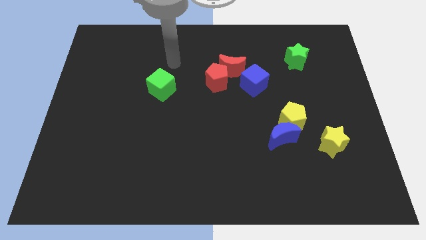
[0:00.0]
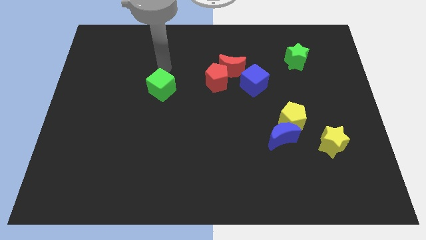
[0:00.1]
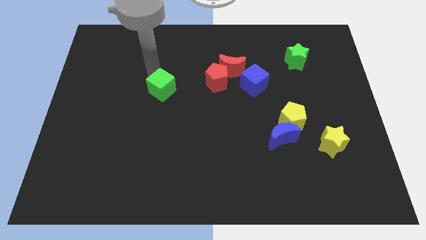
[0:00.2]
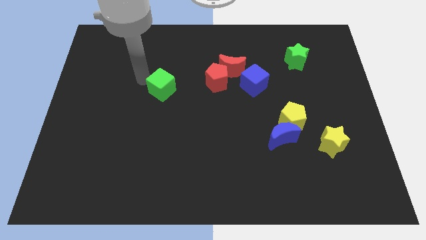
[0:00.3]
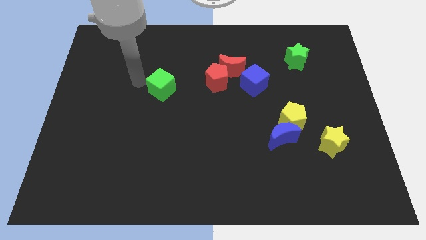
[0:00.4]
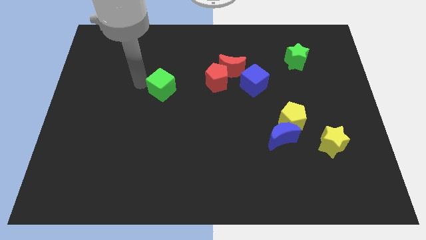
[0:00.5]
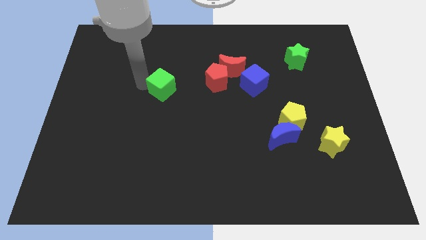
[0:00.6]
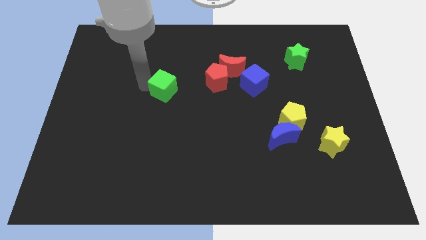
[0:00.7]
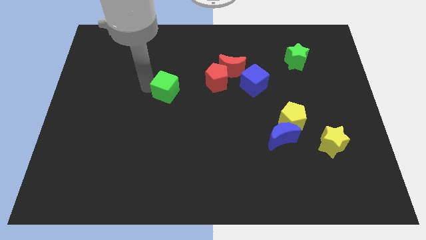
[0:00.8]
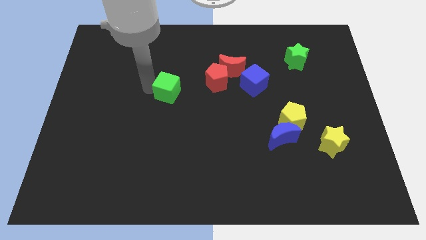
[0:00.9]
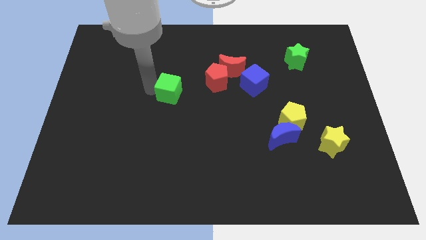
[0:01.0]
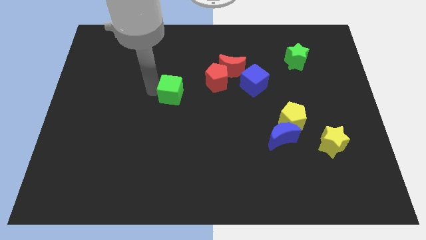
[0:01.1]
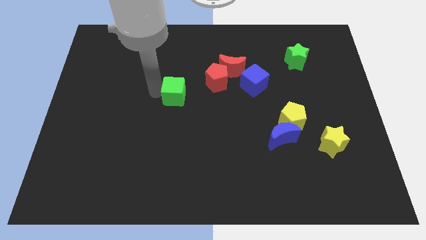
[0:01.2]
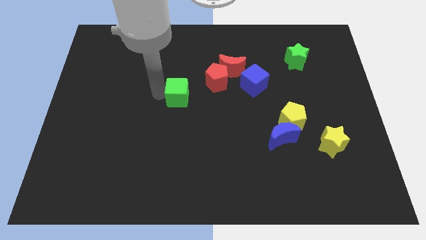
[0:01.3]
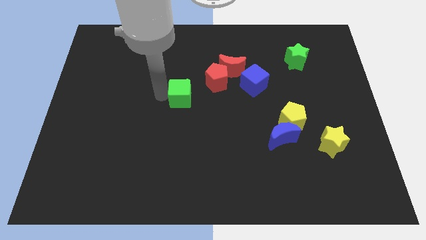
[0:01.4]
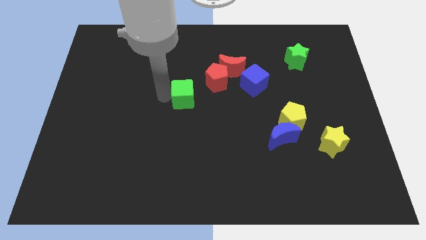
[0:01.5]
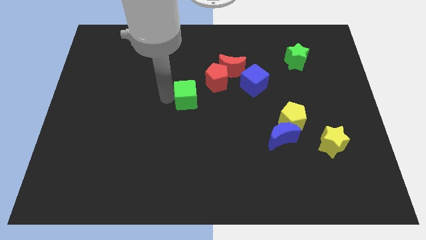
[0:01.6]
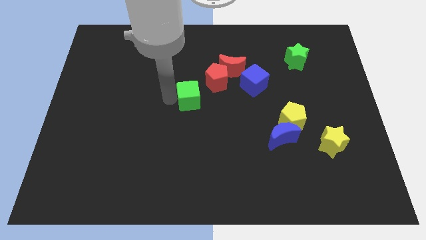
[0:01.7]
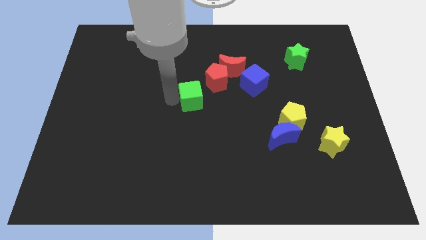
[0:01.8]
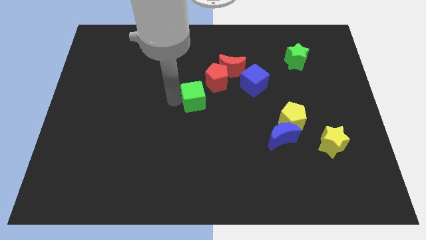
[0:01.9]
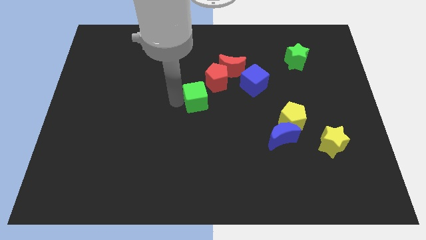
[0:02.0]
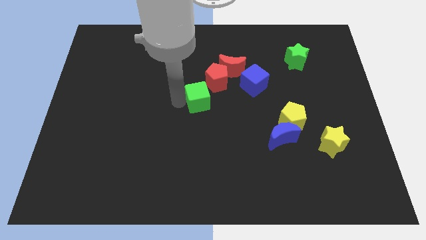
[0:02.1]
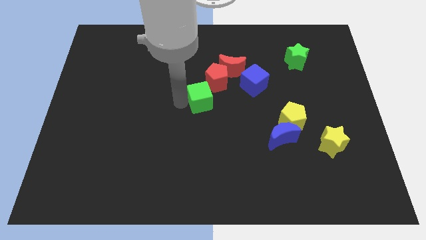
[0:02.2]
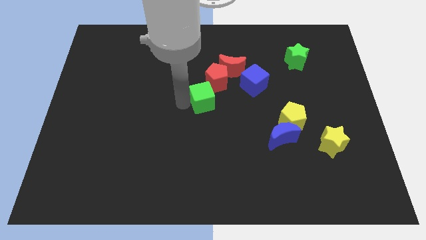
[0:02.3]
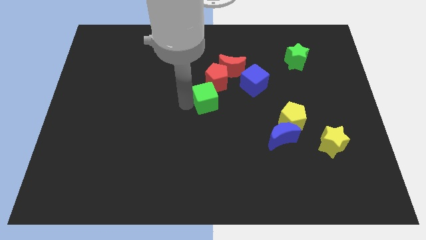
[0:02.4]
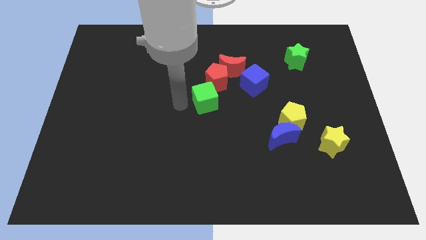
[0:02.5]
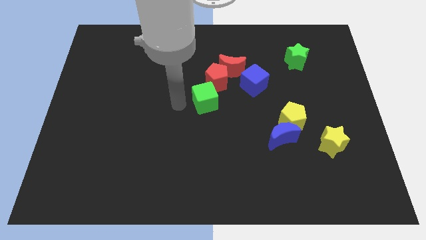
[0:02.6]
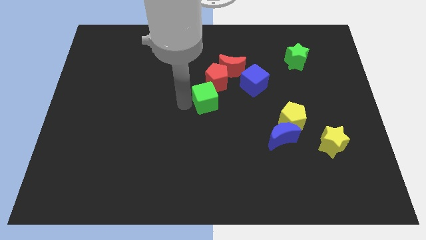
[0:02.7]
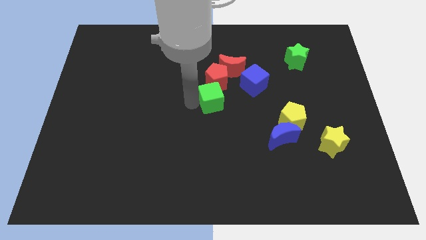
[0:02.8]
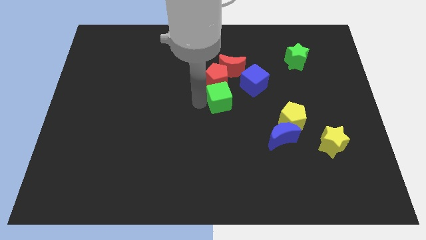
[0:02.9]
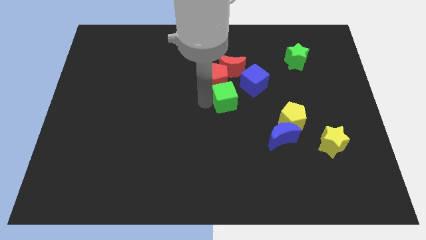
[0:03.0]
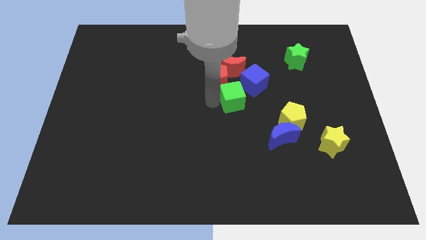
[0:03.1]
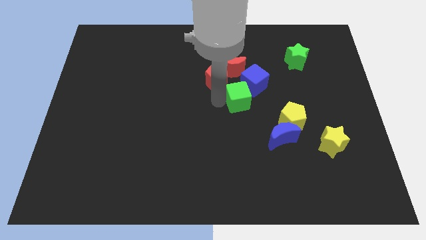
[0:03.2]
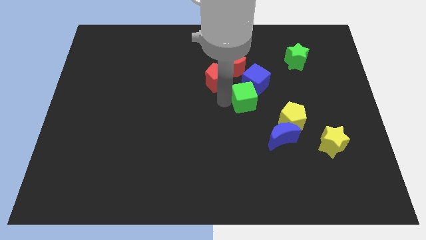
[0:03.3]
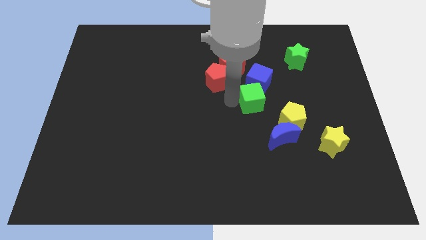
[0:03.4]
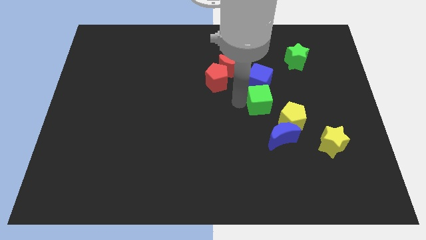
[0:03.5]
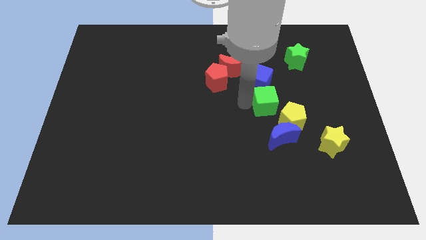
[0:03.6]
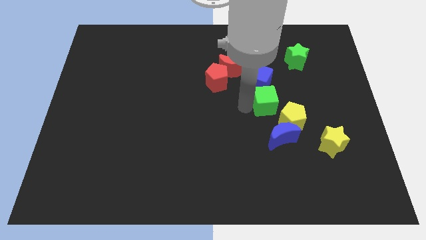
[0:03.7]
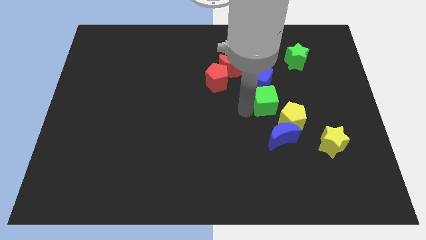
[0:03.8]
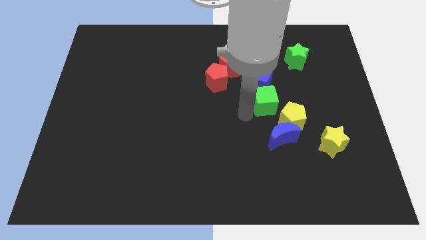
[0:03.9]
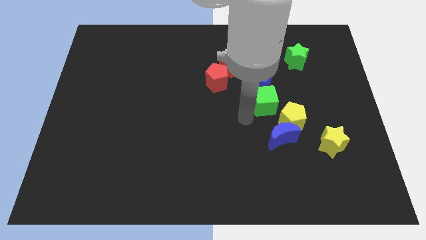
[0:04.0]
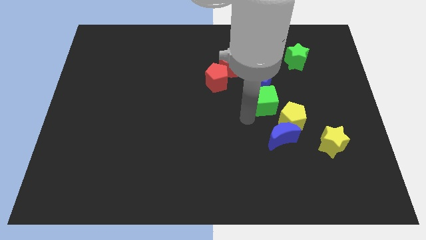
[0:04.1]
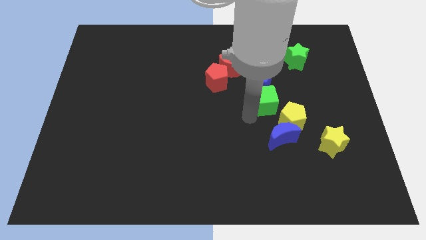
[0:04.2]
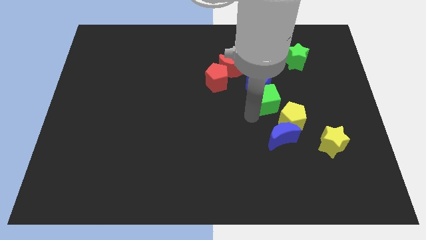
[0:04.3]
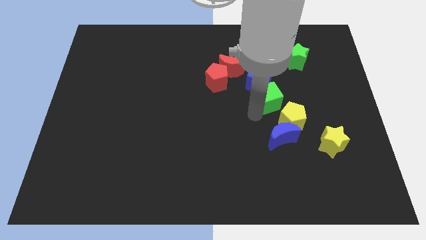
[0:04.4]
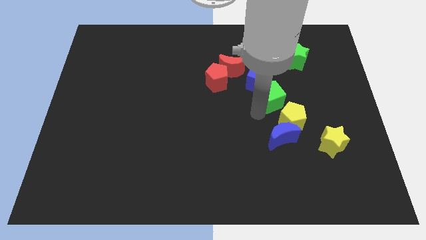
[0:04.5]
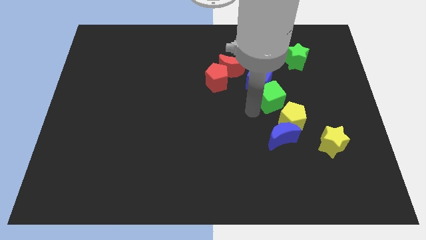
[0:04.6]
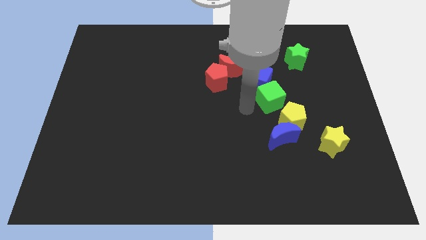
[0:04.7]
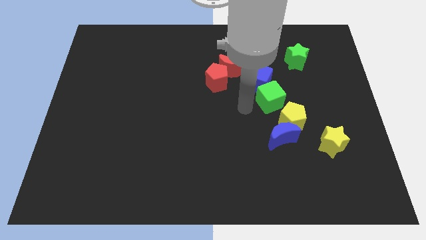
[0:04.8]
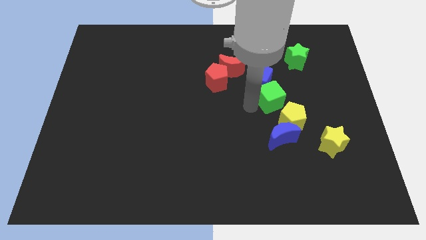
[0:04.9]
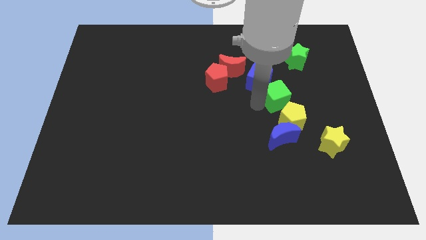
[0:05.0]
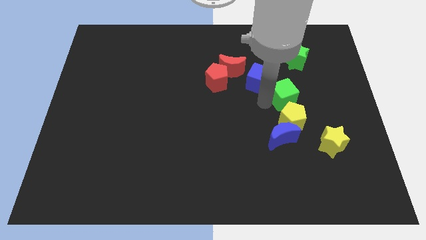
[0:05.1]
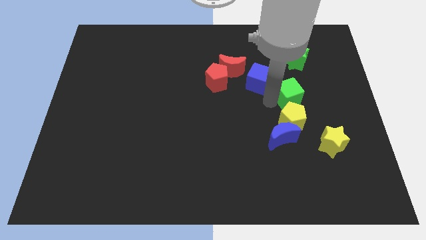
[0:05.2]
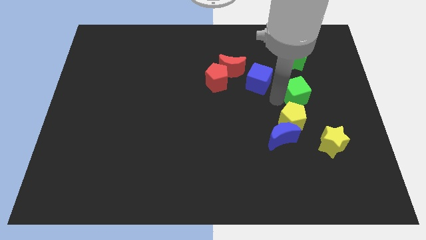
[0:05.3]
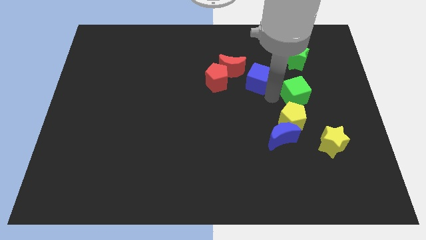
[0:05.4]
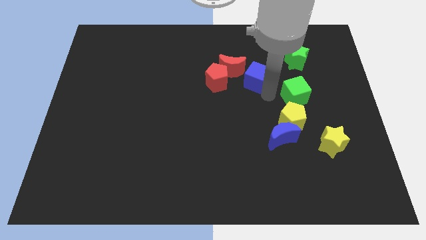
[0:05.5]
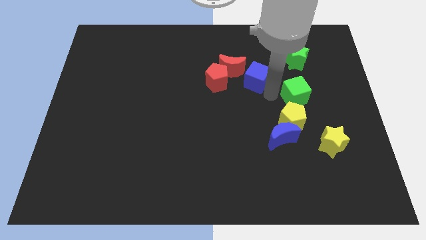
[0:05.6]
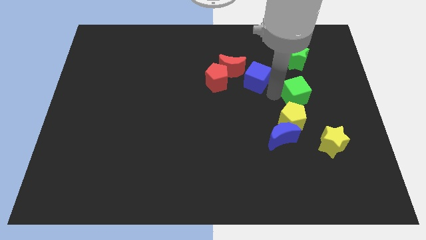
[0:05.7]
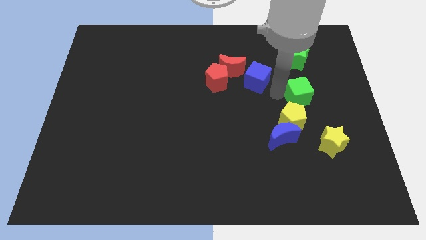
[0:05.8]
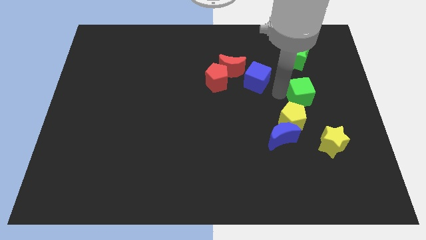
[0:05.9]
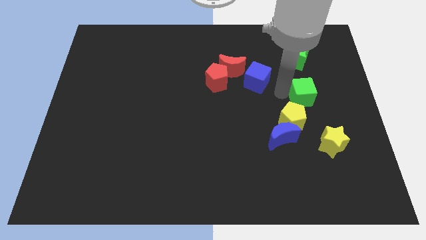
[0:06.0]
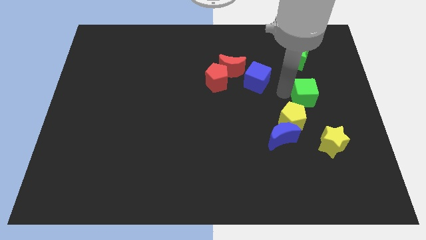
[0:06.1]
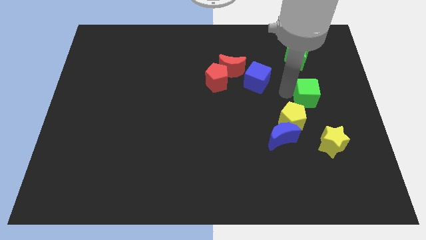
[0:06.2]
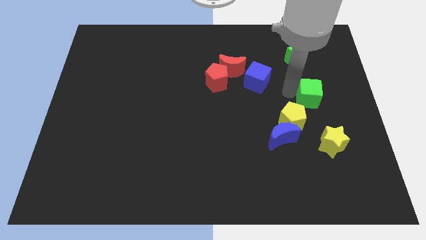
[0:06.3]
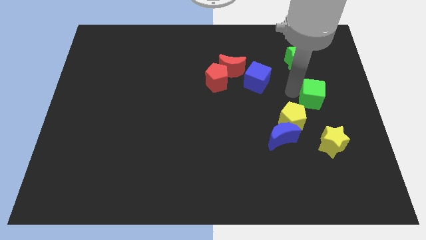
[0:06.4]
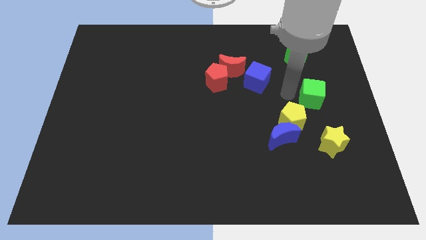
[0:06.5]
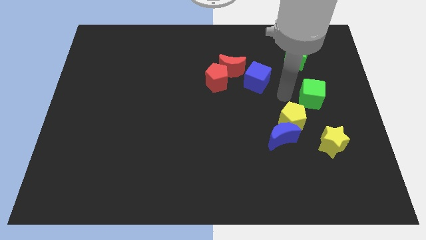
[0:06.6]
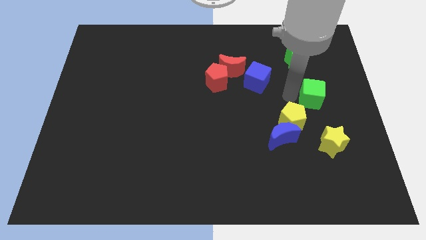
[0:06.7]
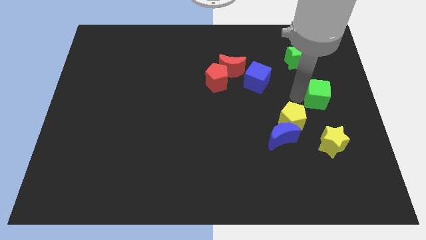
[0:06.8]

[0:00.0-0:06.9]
slide the green cube to the center right
